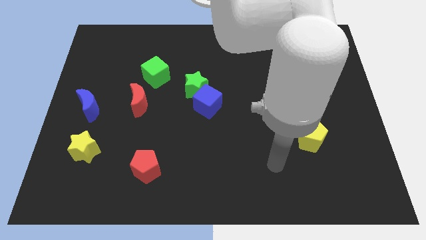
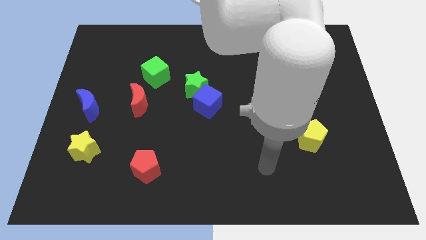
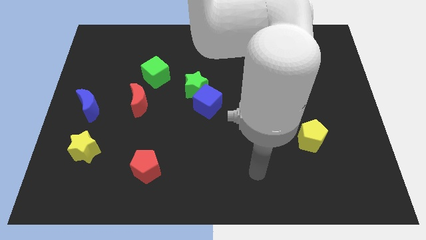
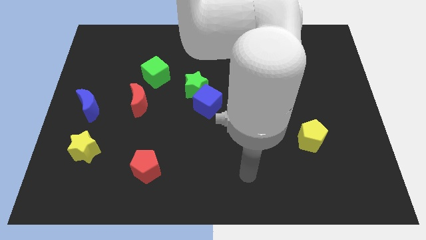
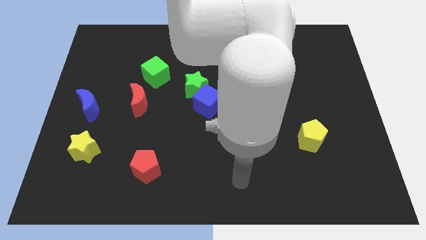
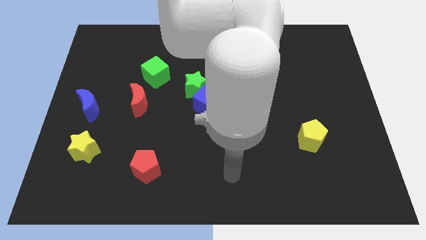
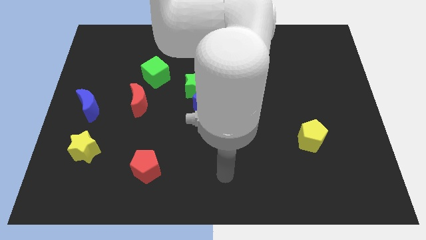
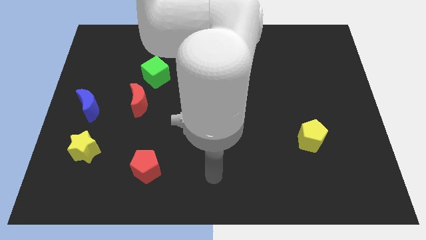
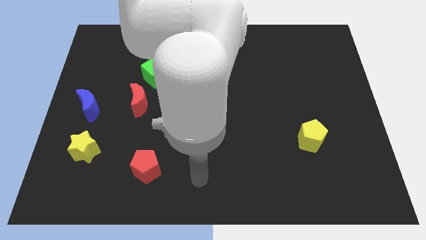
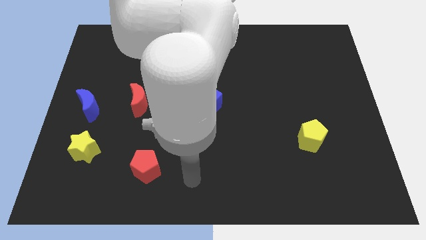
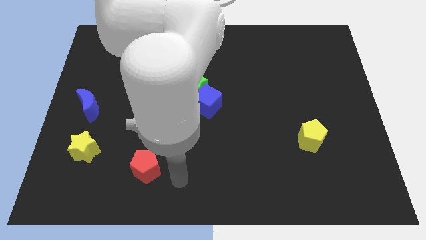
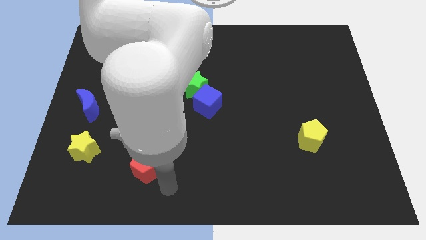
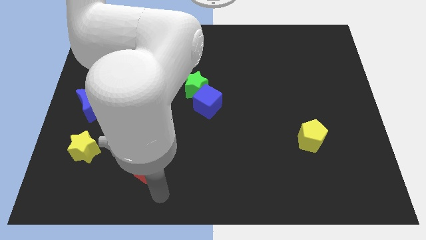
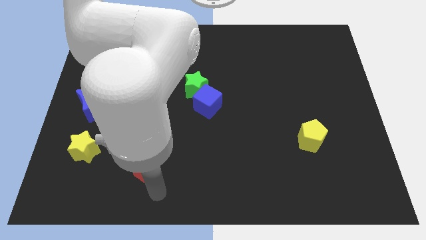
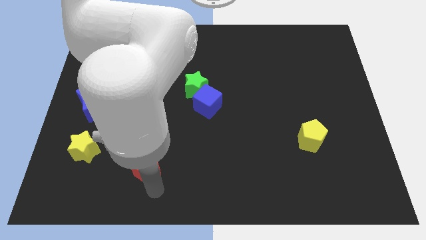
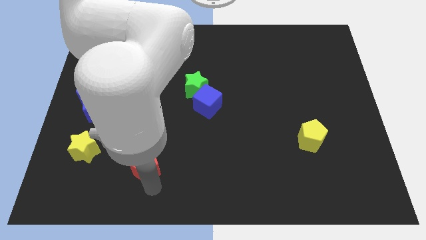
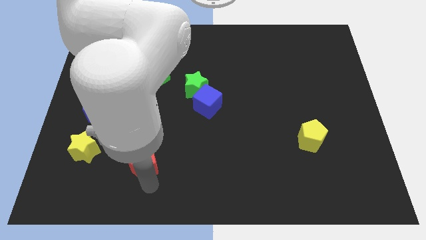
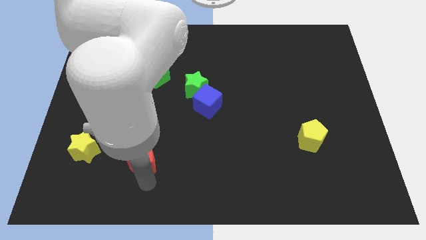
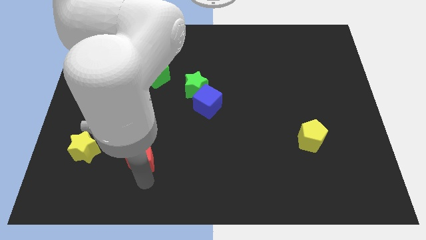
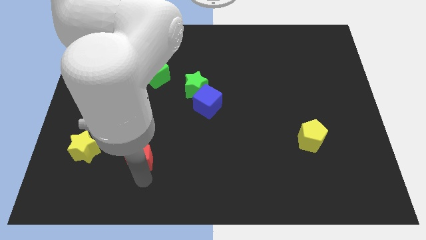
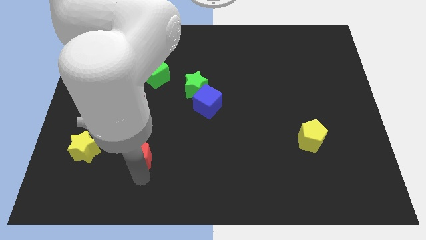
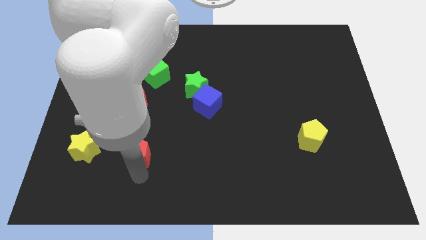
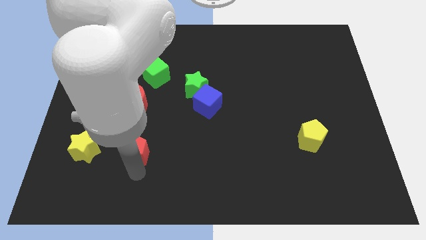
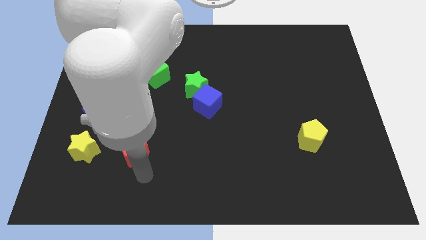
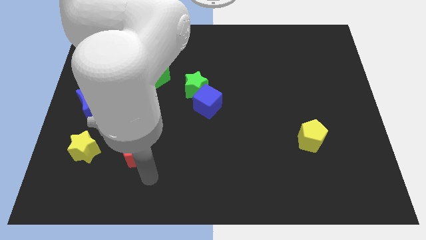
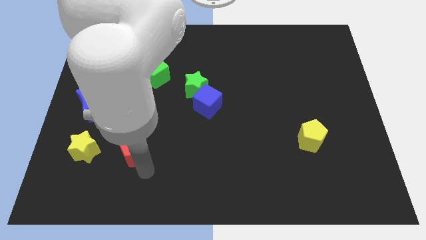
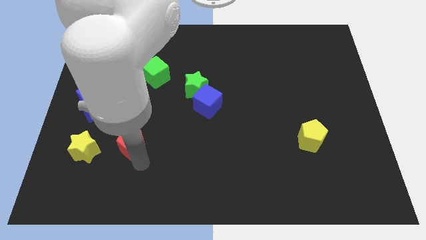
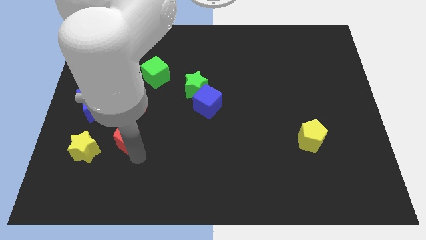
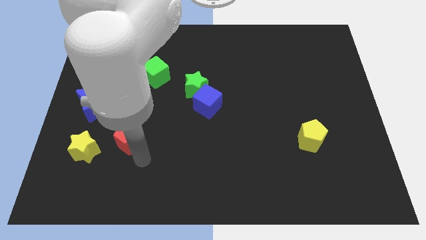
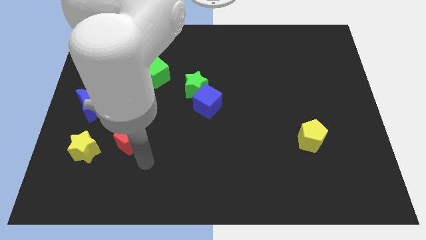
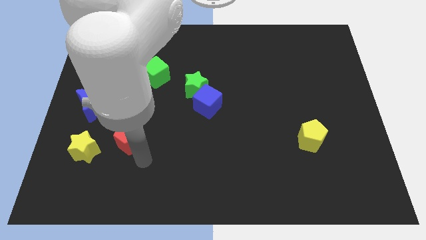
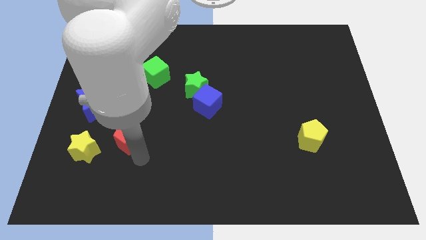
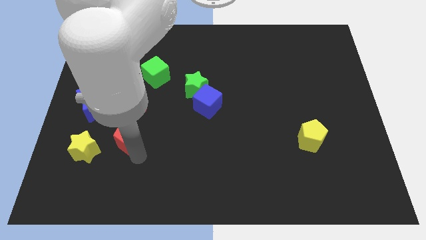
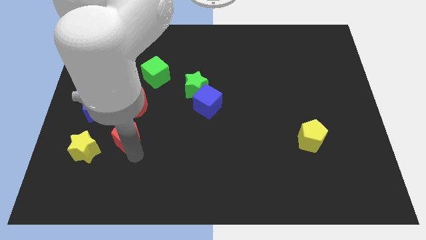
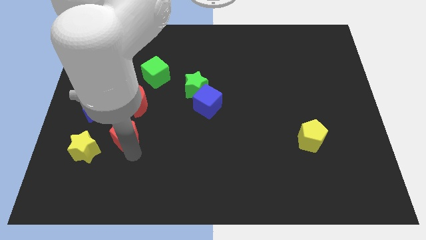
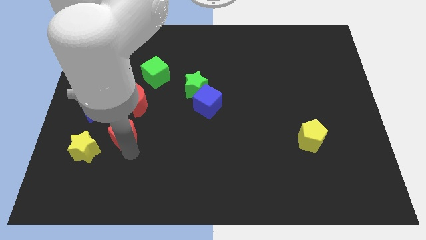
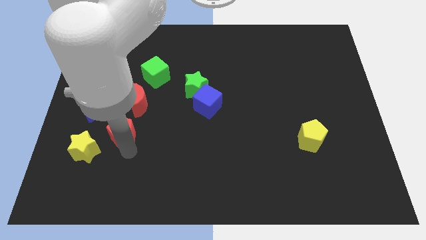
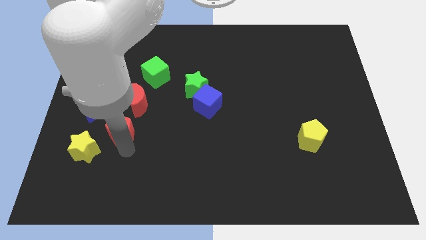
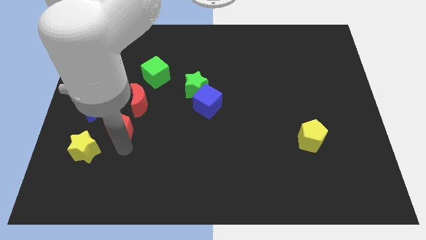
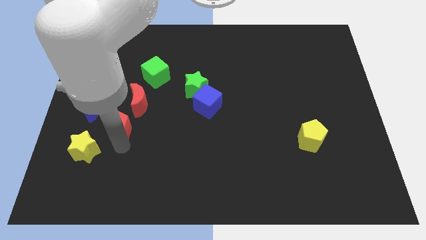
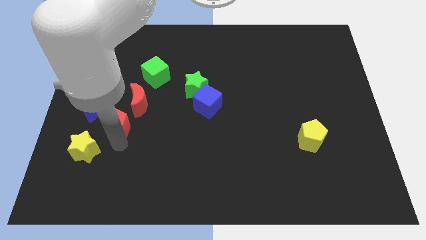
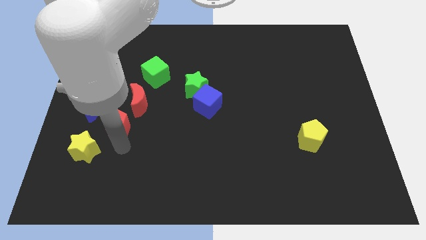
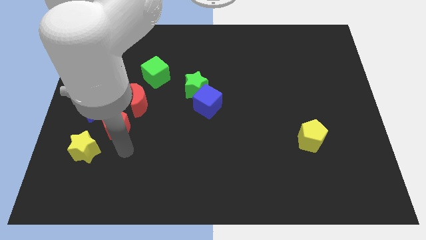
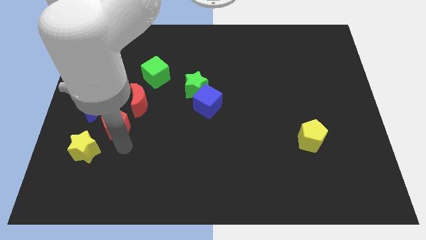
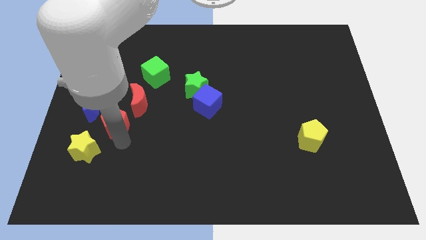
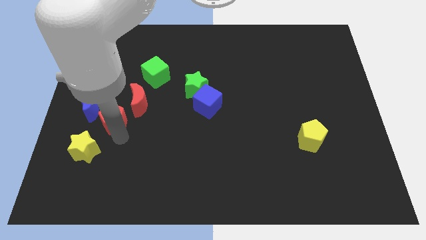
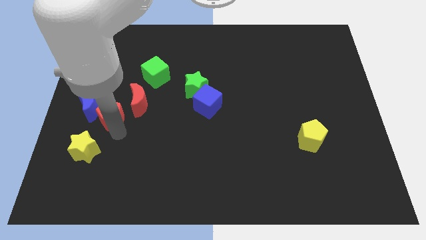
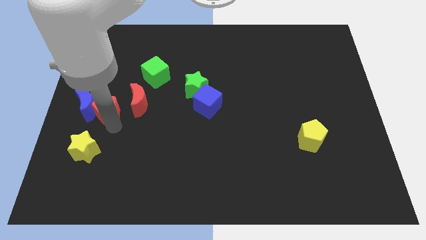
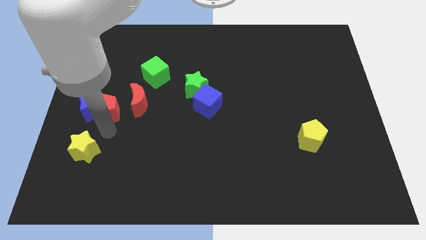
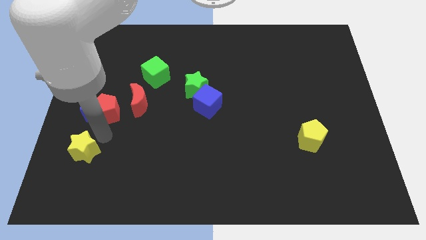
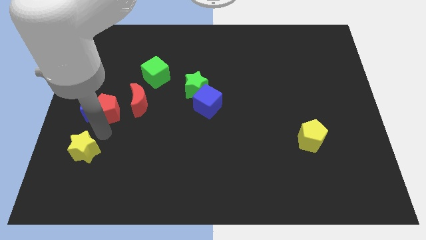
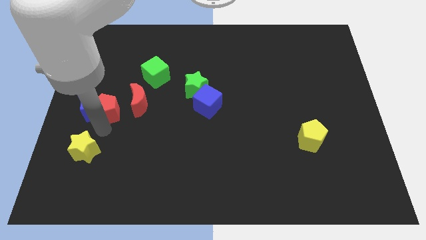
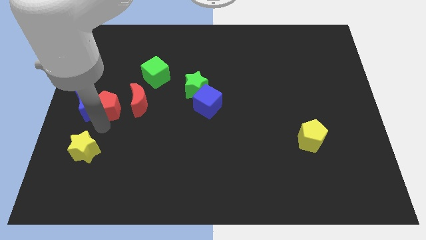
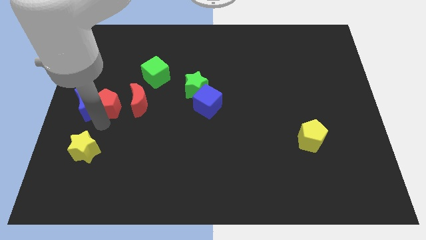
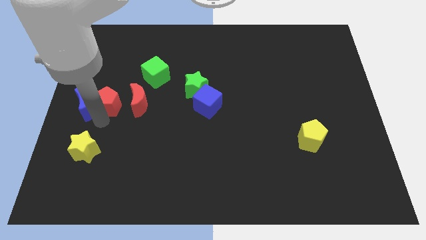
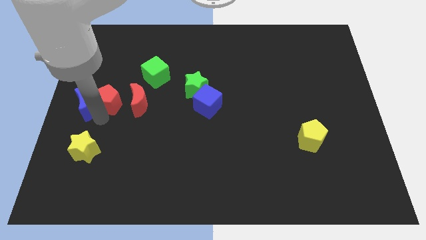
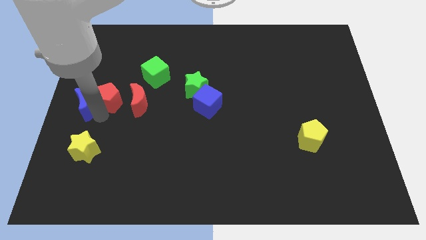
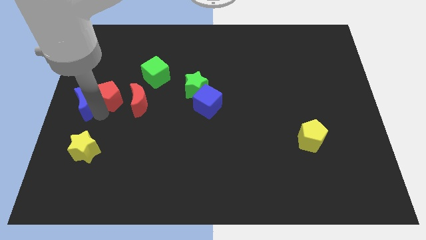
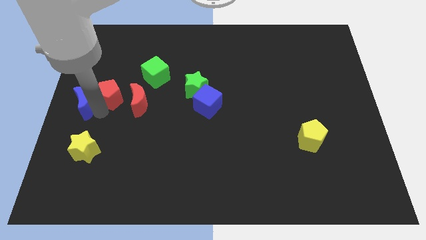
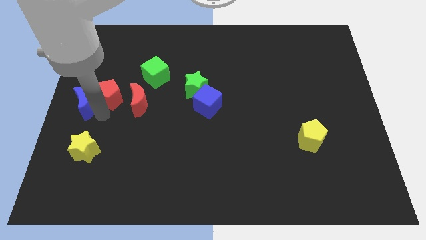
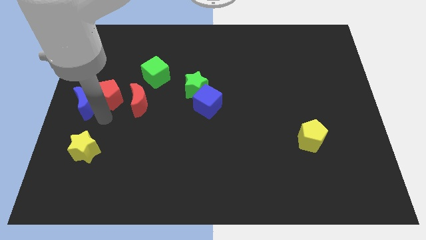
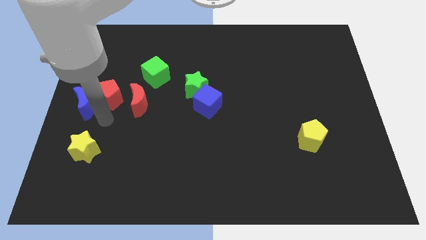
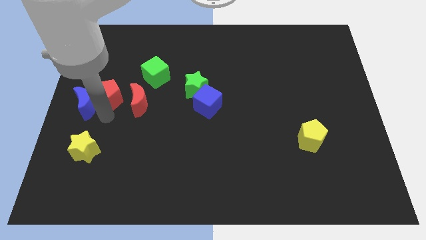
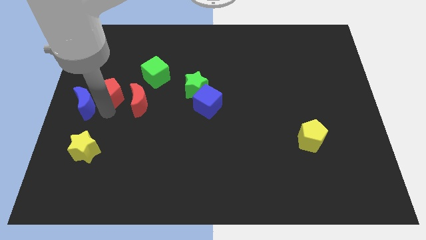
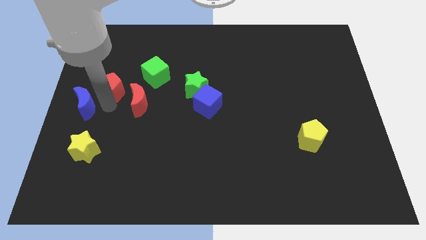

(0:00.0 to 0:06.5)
move the red pentagon to the left of the green cube

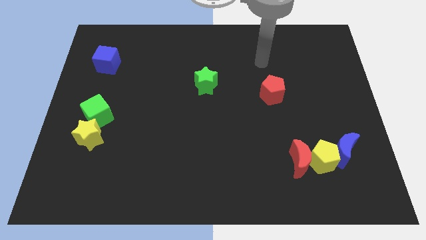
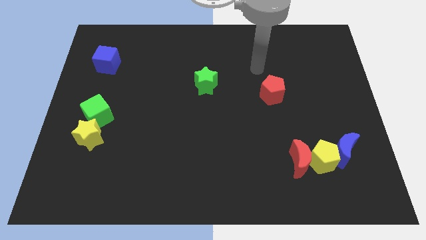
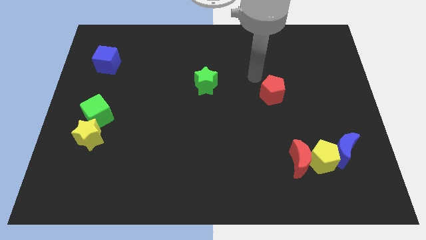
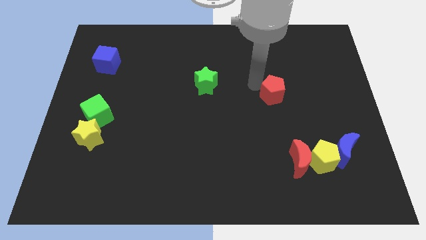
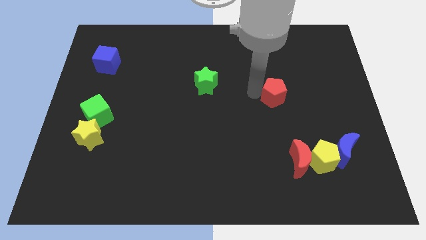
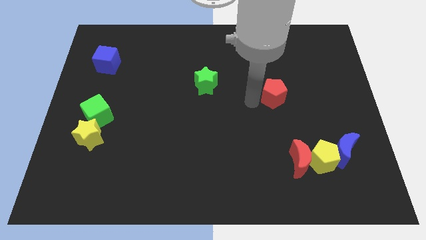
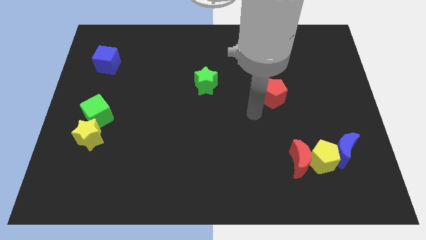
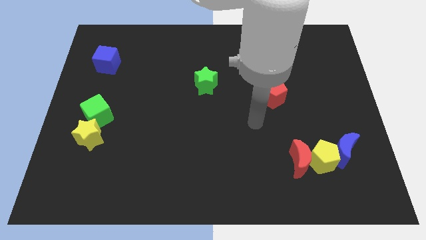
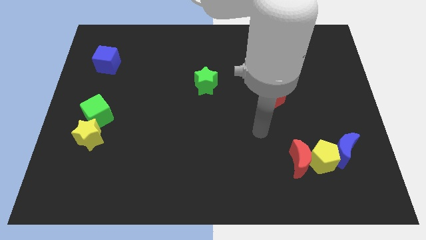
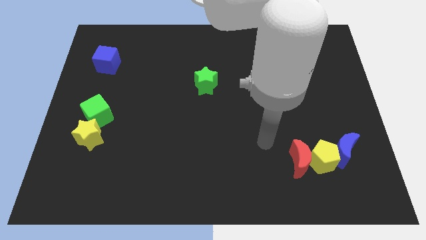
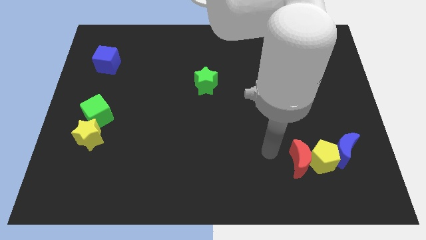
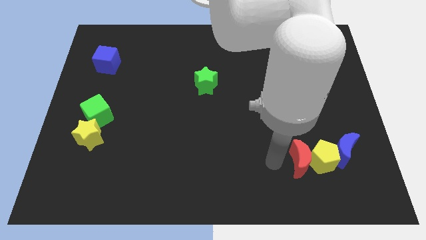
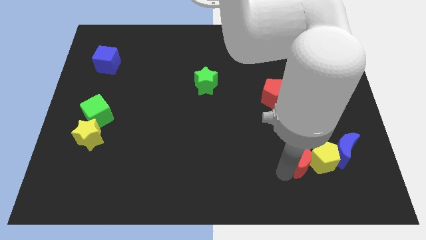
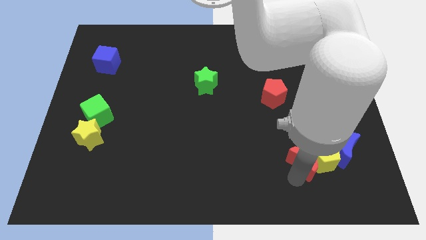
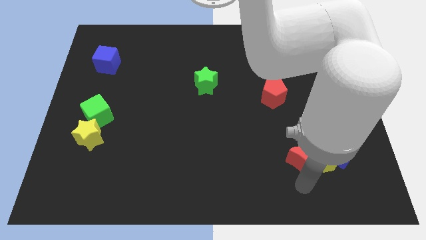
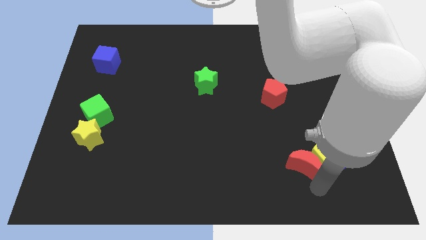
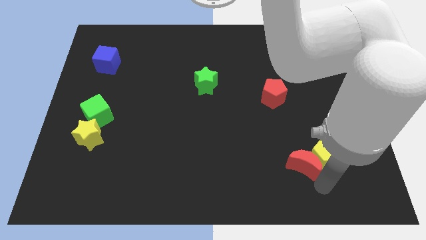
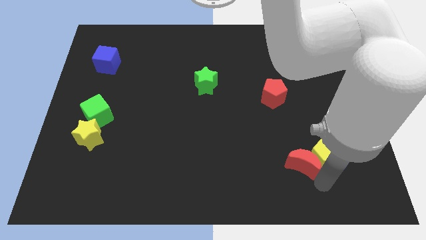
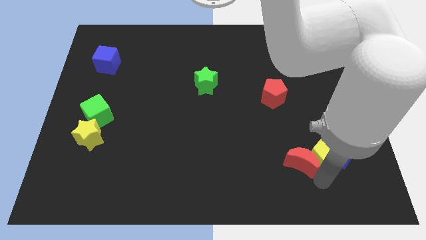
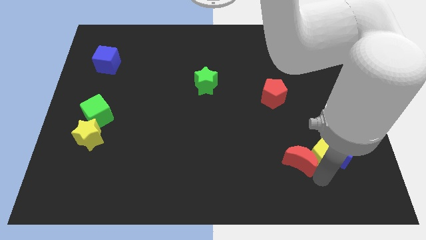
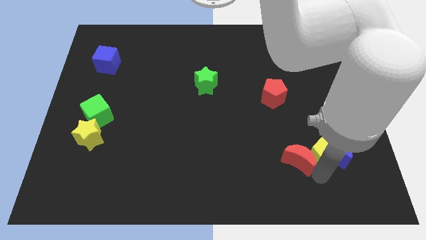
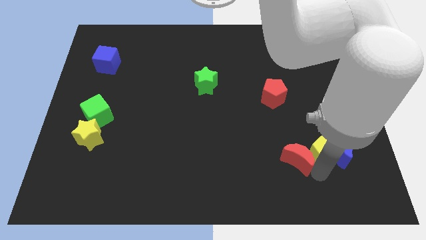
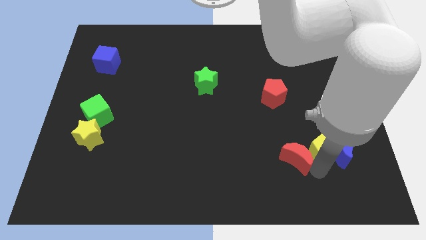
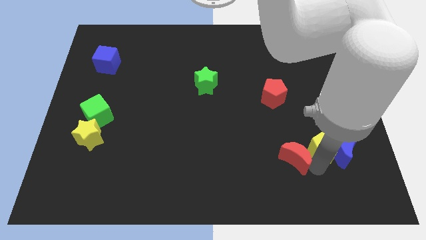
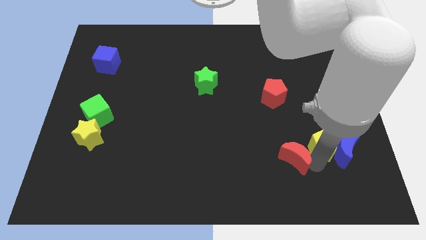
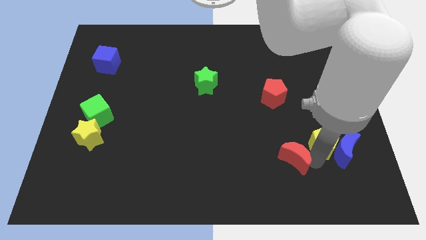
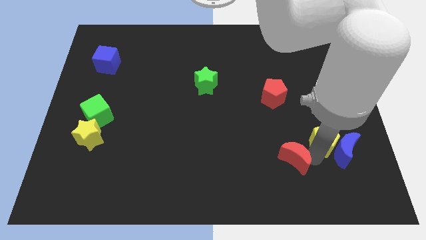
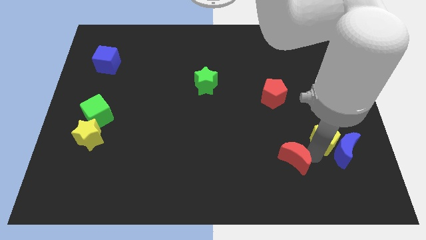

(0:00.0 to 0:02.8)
slide the yellow pentagon to the top of the blue moon
